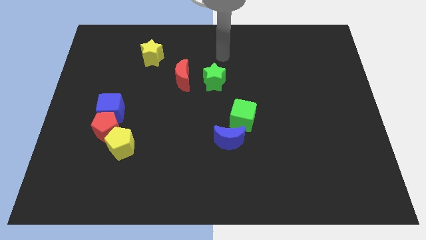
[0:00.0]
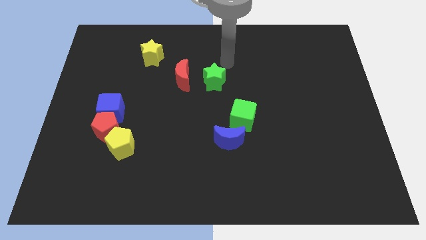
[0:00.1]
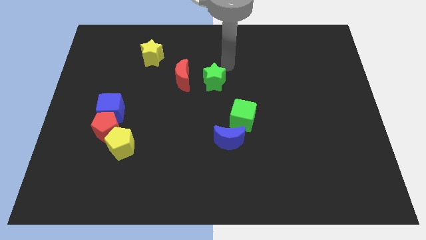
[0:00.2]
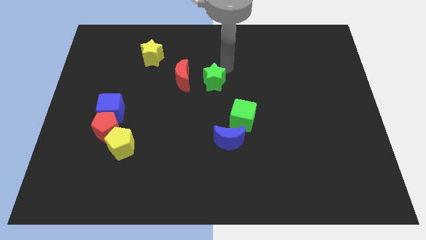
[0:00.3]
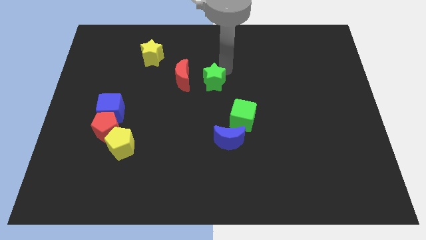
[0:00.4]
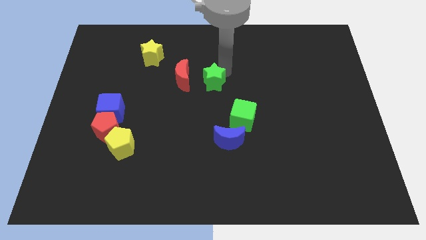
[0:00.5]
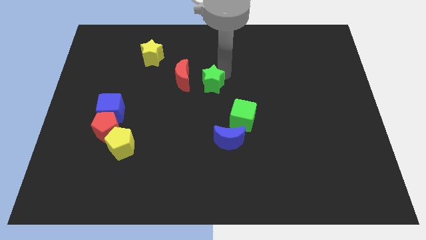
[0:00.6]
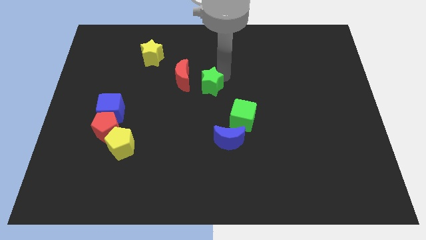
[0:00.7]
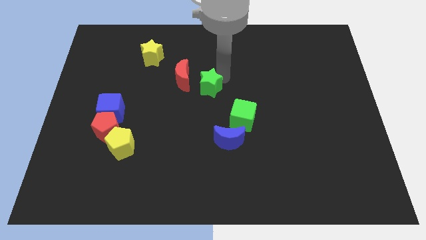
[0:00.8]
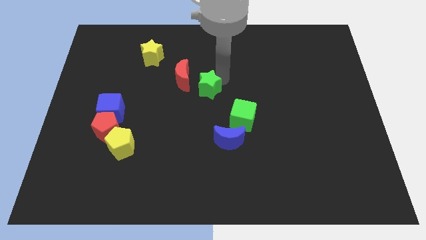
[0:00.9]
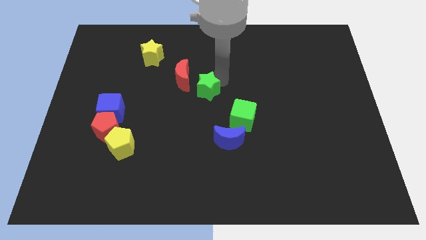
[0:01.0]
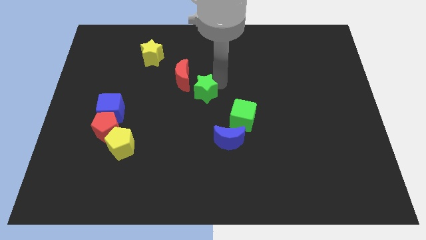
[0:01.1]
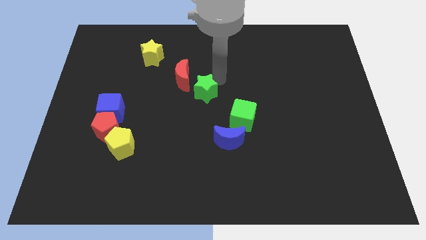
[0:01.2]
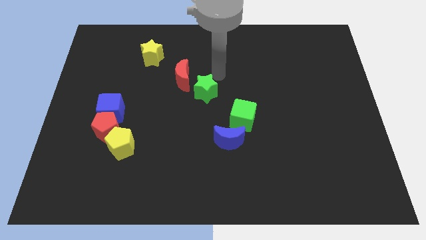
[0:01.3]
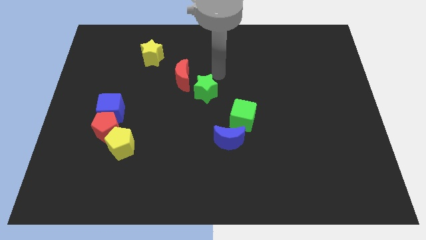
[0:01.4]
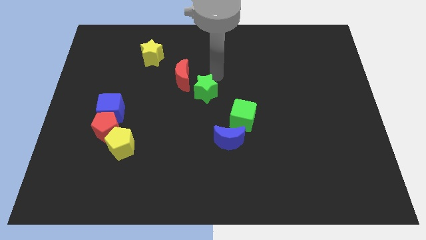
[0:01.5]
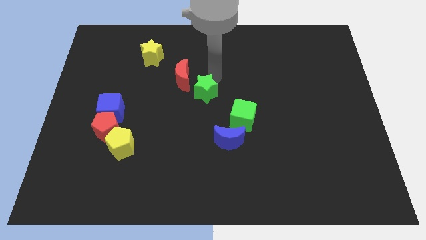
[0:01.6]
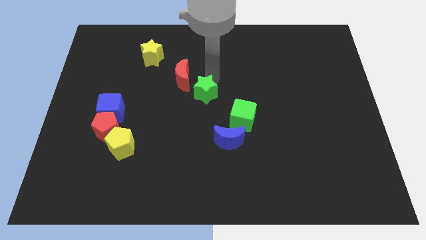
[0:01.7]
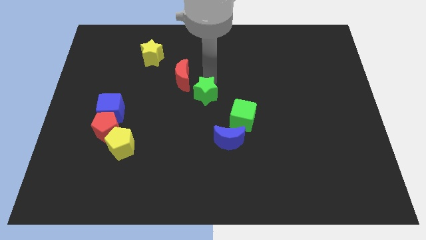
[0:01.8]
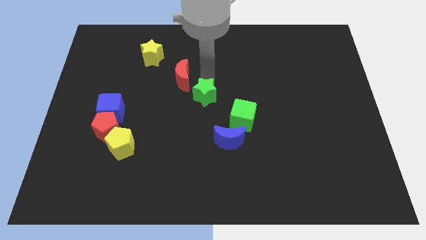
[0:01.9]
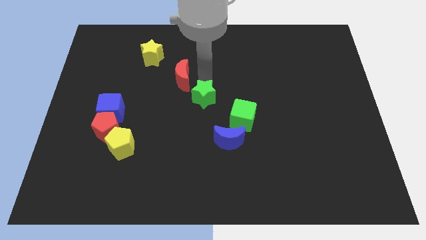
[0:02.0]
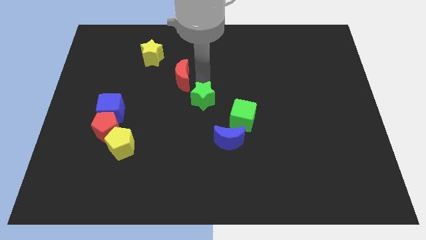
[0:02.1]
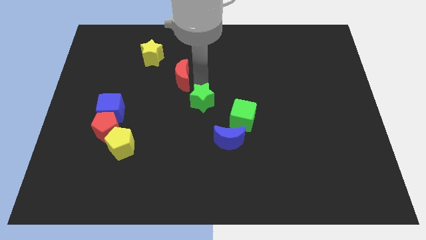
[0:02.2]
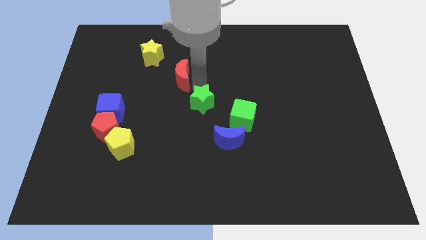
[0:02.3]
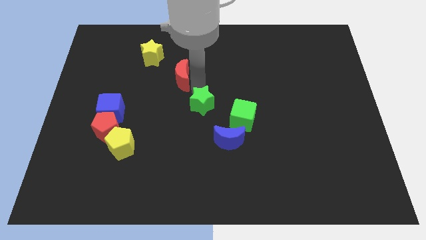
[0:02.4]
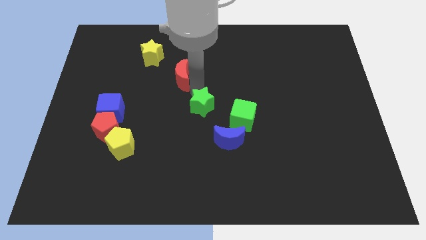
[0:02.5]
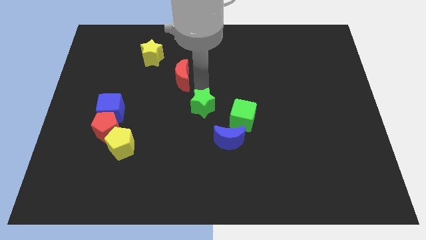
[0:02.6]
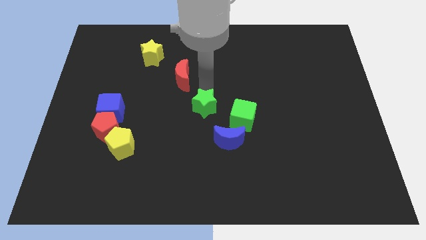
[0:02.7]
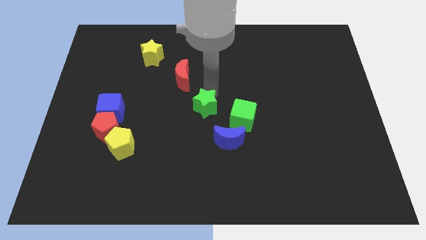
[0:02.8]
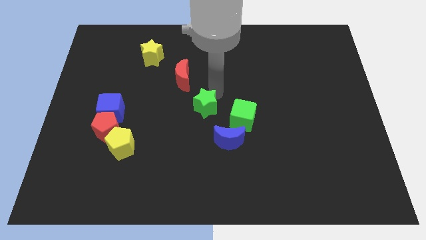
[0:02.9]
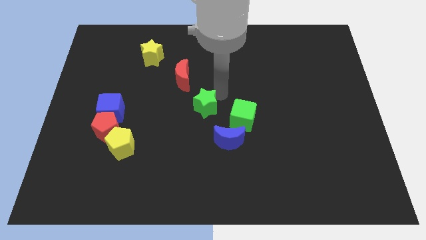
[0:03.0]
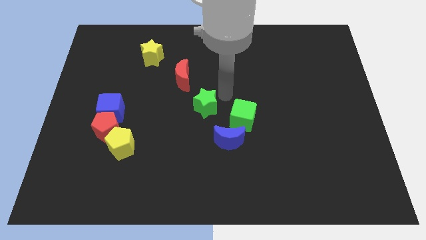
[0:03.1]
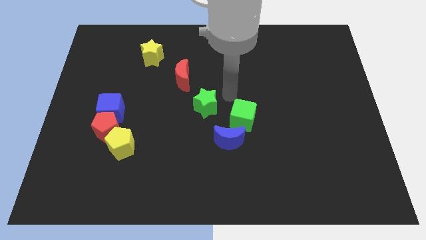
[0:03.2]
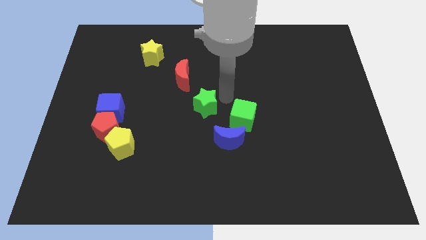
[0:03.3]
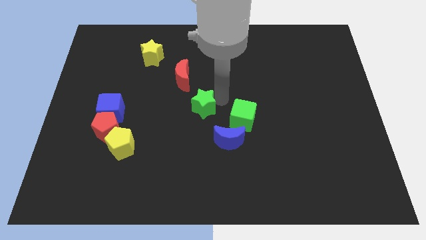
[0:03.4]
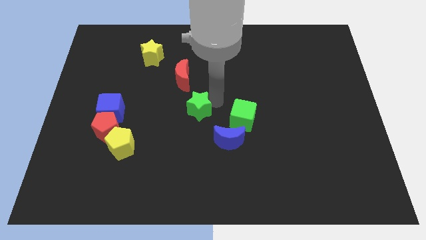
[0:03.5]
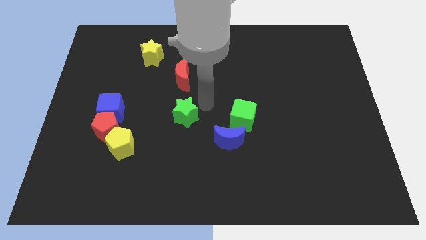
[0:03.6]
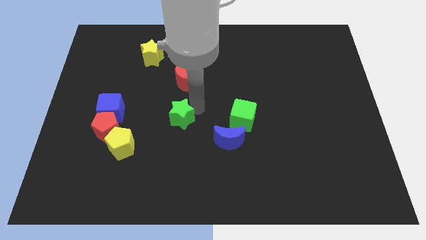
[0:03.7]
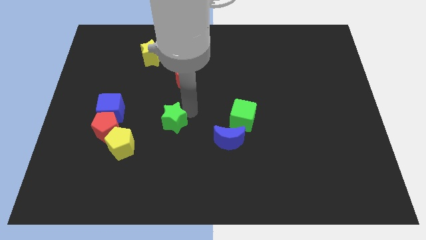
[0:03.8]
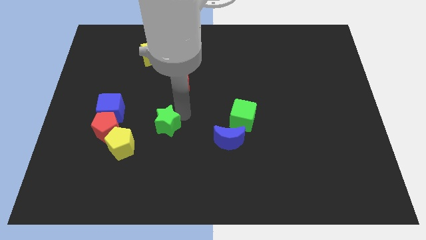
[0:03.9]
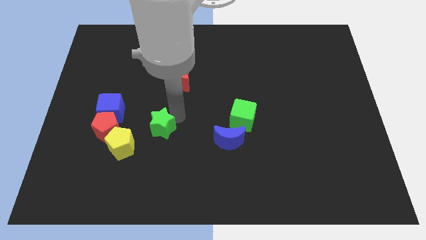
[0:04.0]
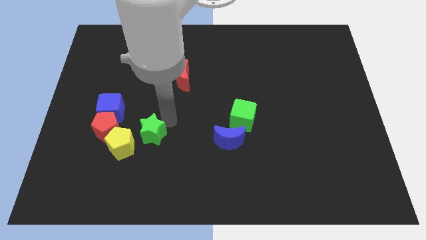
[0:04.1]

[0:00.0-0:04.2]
push the green star down and left

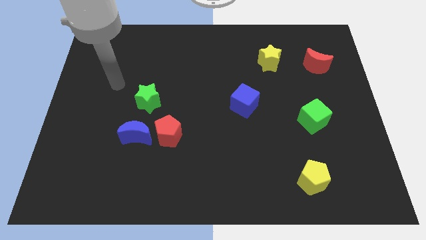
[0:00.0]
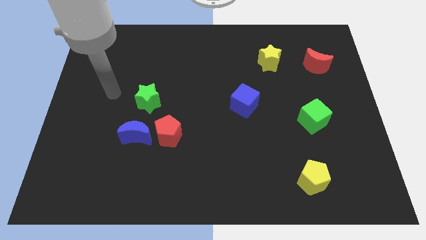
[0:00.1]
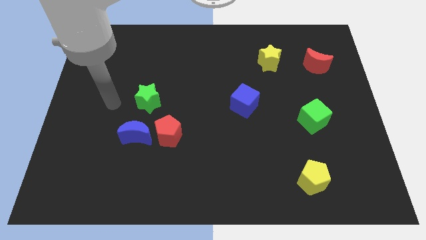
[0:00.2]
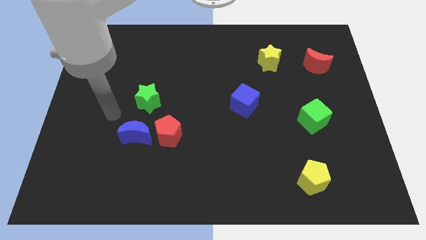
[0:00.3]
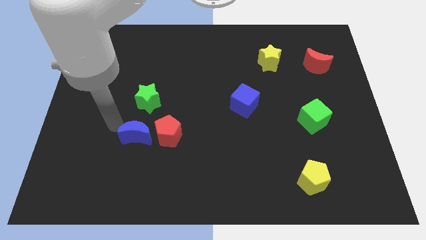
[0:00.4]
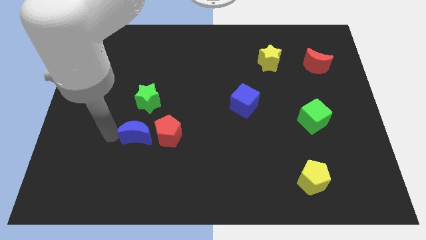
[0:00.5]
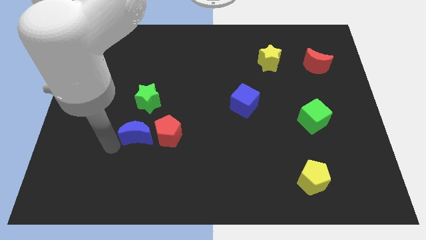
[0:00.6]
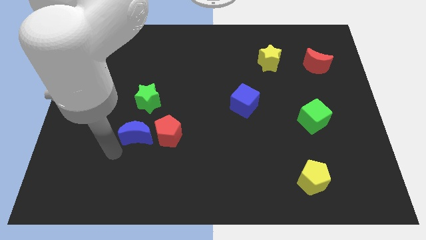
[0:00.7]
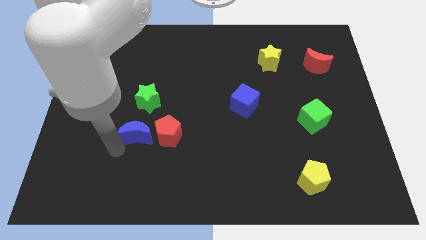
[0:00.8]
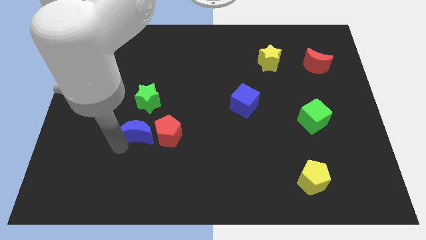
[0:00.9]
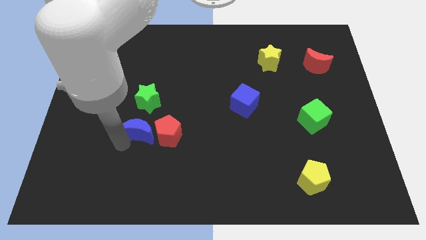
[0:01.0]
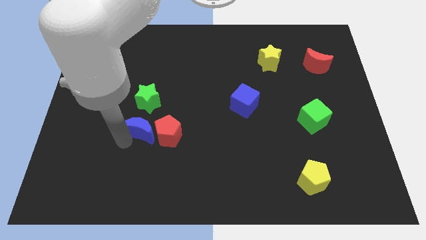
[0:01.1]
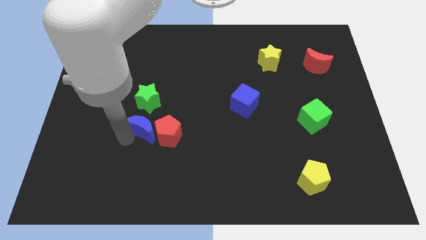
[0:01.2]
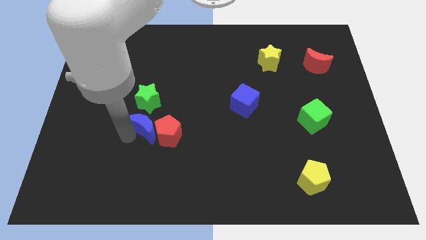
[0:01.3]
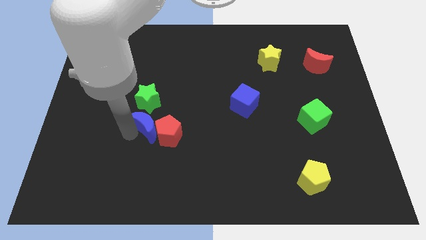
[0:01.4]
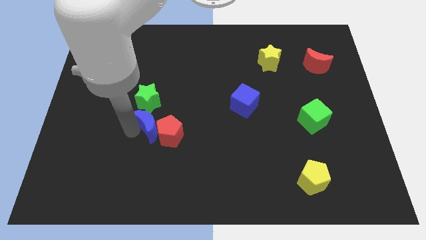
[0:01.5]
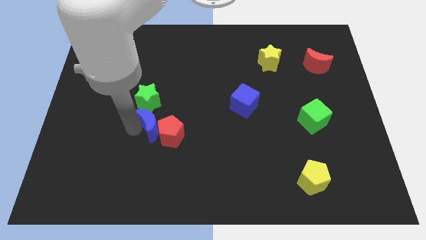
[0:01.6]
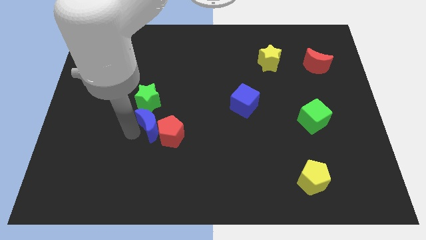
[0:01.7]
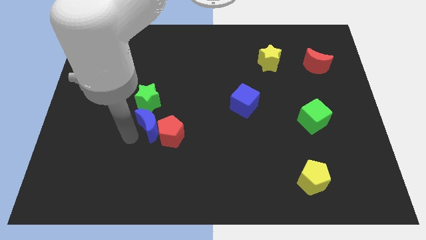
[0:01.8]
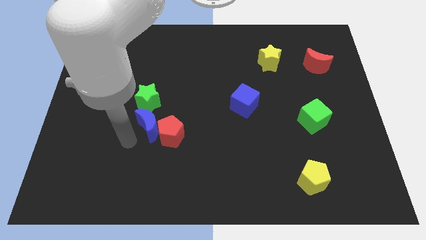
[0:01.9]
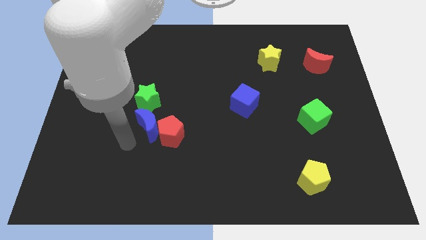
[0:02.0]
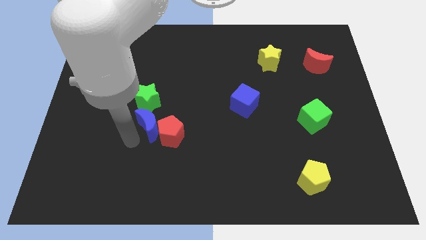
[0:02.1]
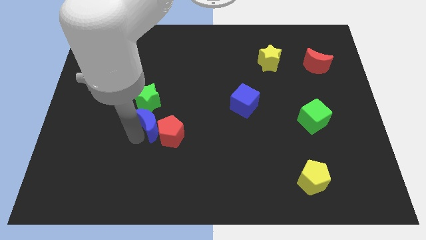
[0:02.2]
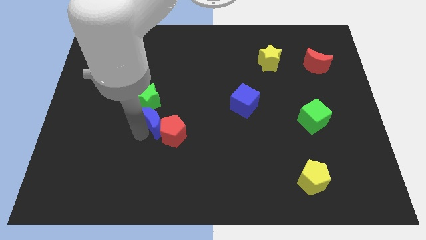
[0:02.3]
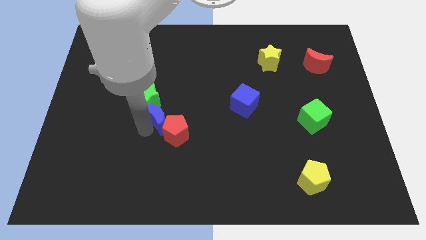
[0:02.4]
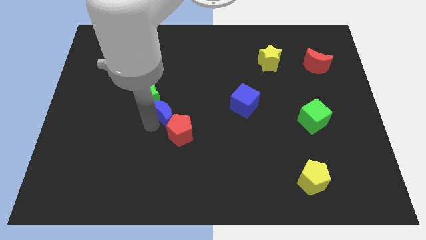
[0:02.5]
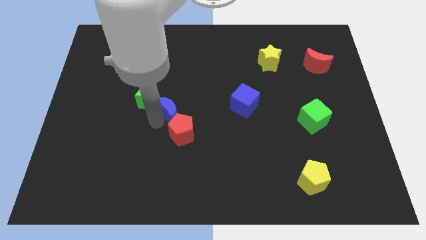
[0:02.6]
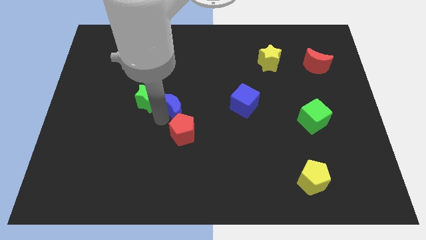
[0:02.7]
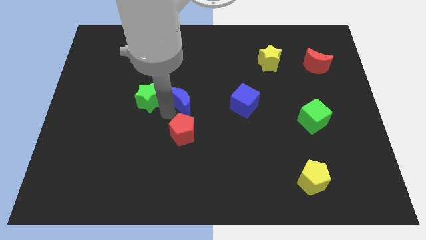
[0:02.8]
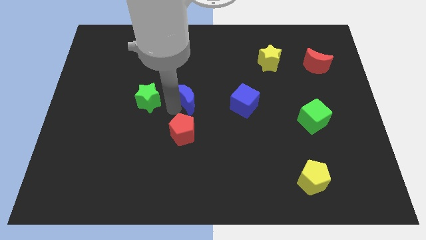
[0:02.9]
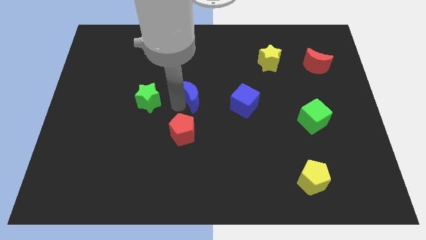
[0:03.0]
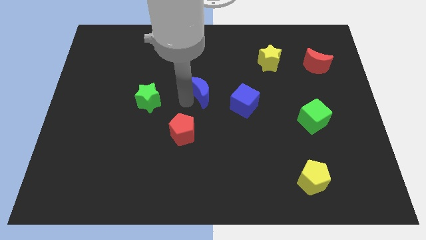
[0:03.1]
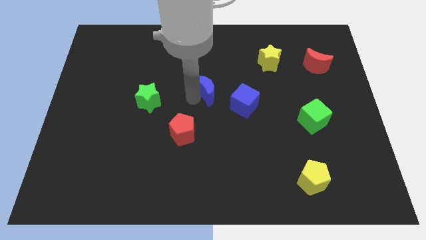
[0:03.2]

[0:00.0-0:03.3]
slide the blue moon upwards and then right

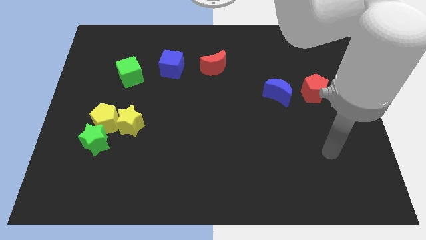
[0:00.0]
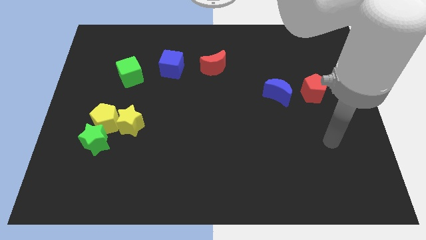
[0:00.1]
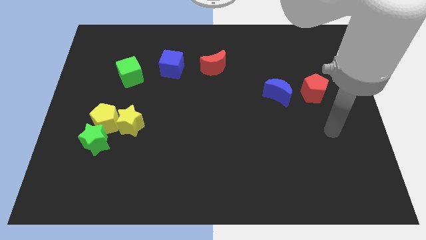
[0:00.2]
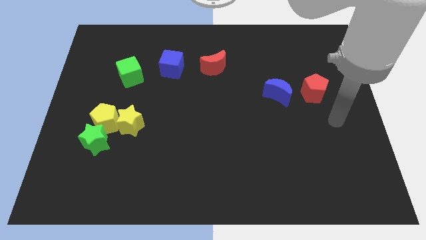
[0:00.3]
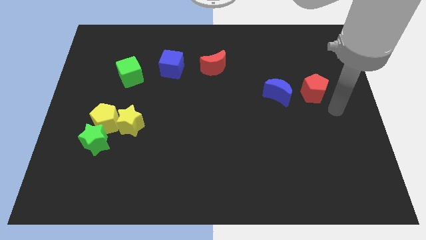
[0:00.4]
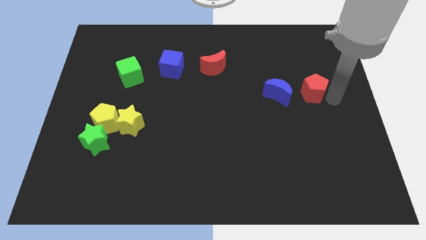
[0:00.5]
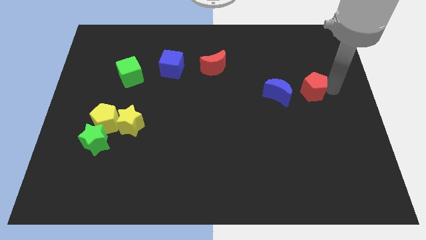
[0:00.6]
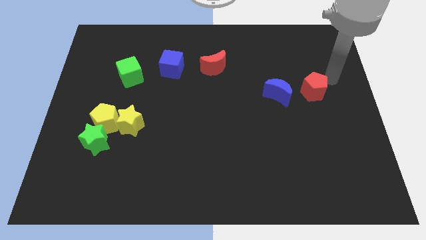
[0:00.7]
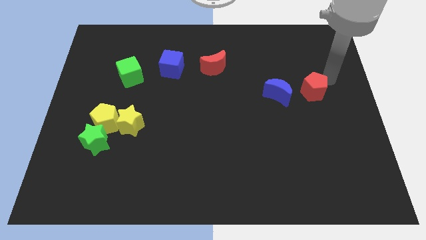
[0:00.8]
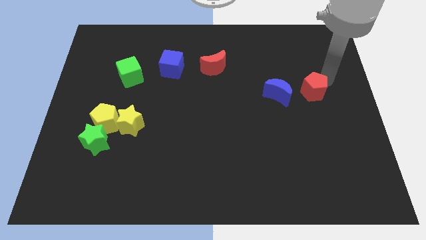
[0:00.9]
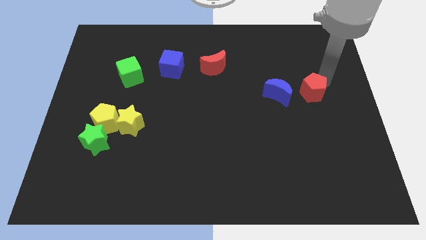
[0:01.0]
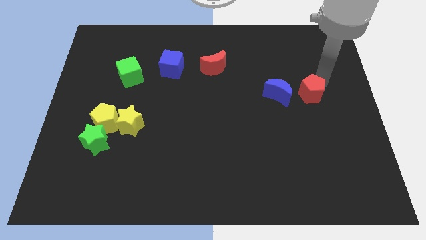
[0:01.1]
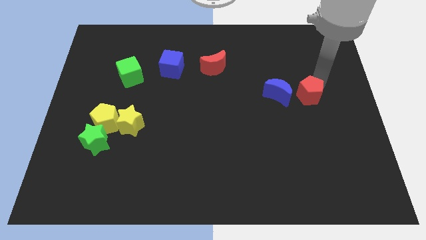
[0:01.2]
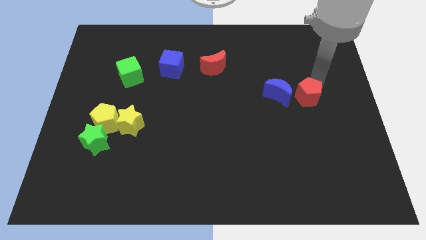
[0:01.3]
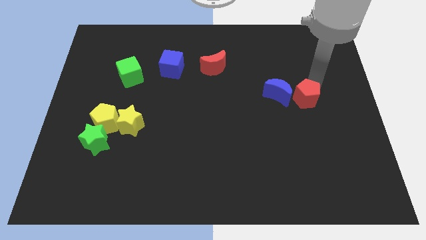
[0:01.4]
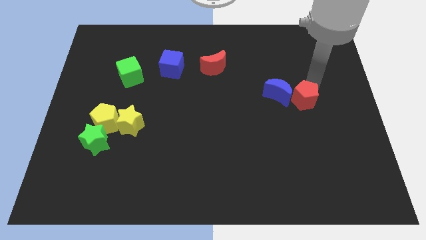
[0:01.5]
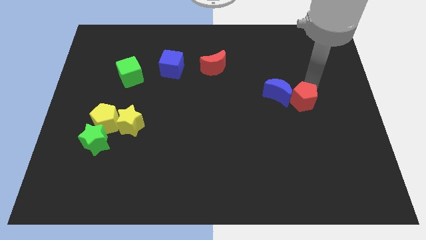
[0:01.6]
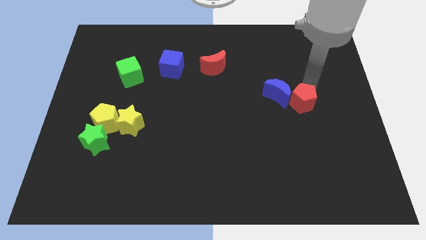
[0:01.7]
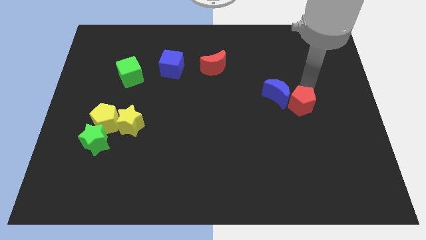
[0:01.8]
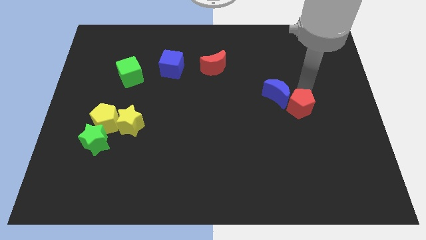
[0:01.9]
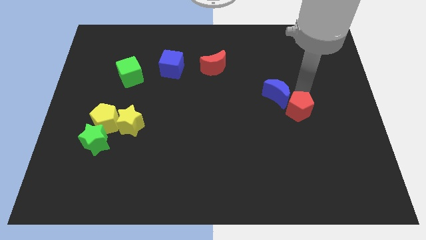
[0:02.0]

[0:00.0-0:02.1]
move the red pentagon downwards and then to the left slightly
